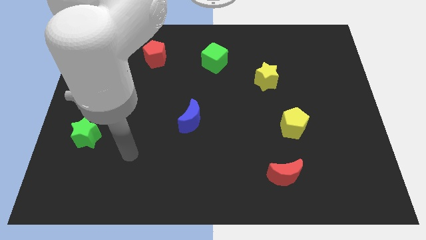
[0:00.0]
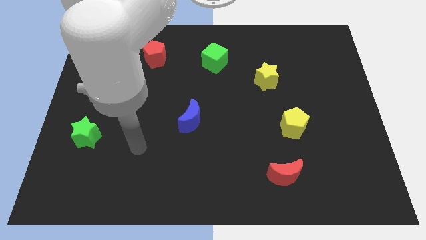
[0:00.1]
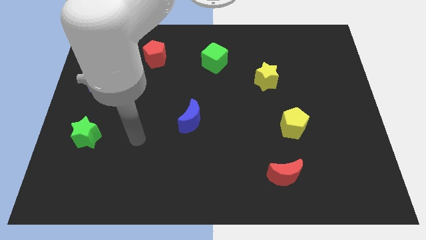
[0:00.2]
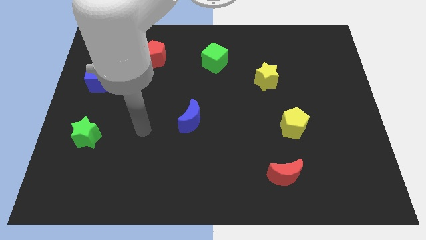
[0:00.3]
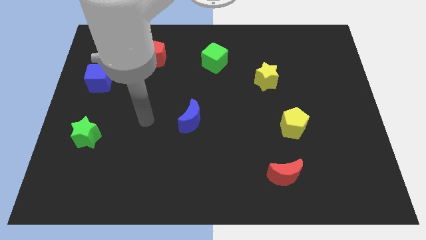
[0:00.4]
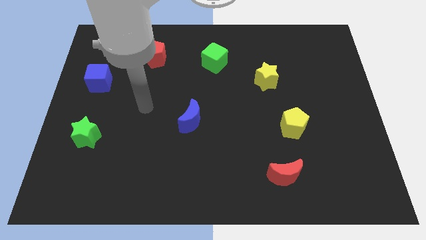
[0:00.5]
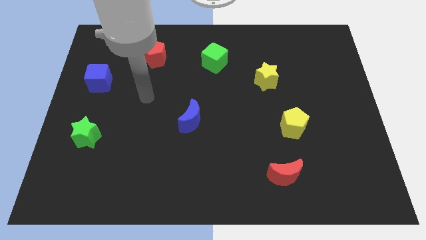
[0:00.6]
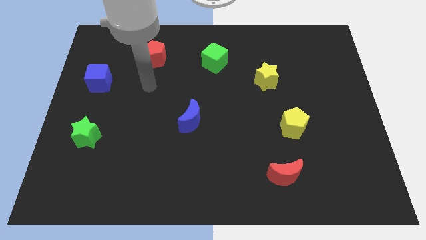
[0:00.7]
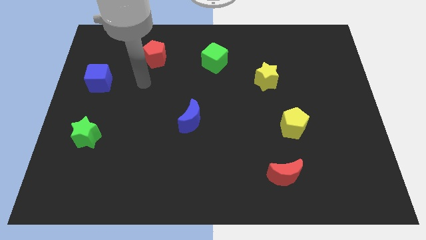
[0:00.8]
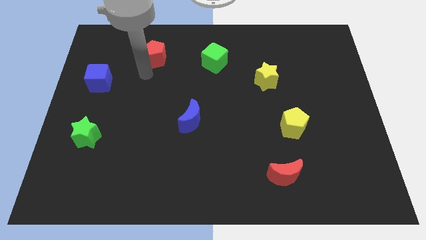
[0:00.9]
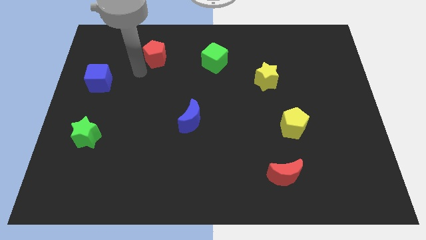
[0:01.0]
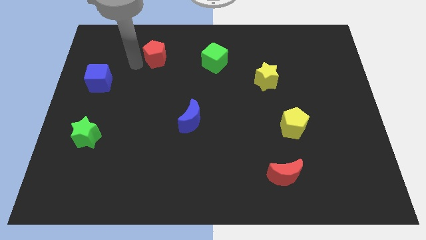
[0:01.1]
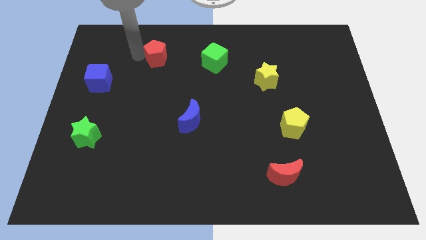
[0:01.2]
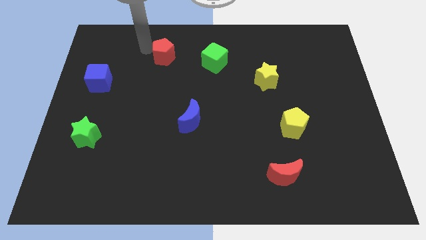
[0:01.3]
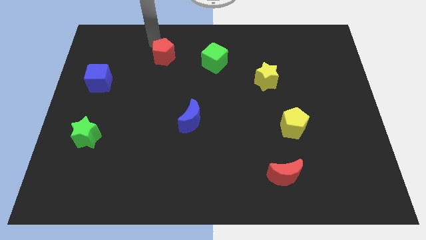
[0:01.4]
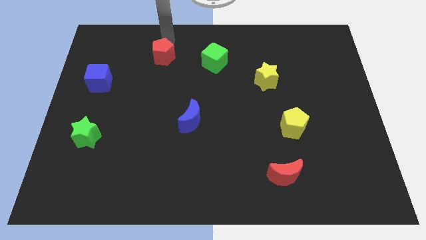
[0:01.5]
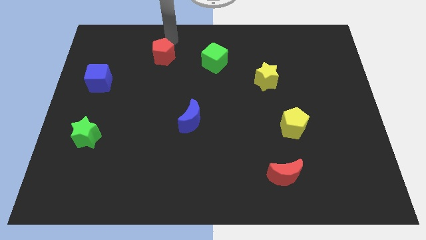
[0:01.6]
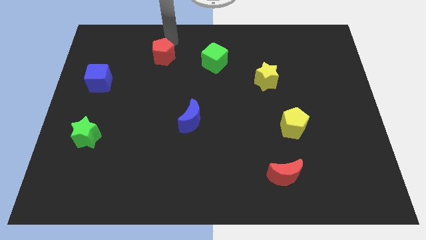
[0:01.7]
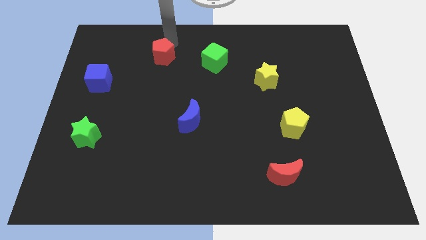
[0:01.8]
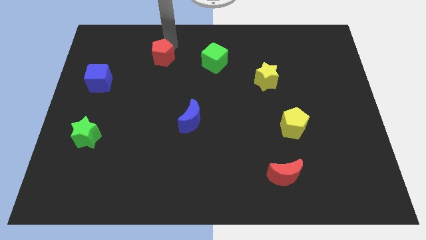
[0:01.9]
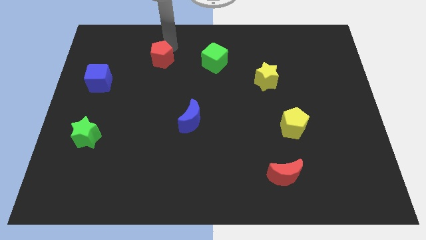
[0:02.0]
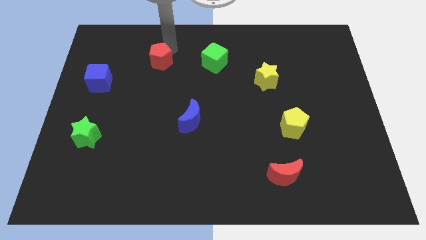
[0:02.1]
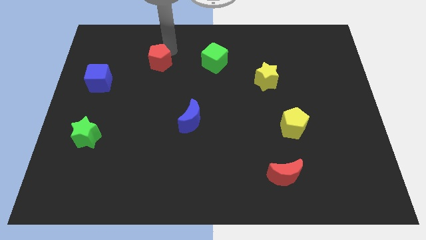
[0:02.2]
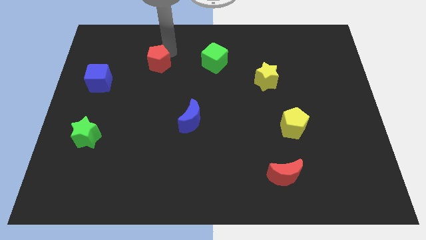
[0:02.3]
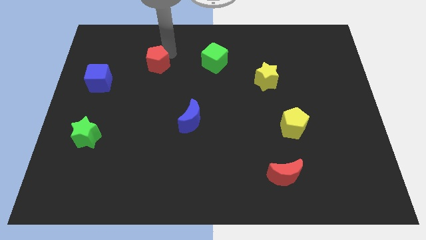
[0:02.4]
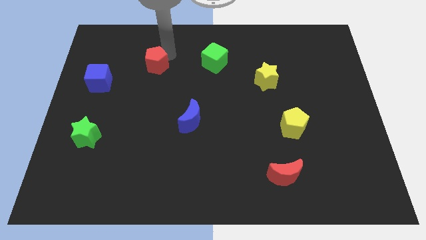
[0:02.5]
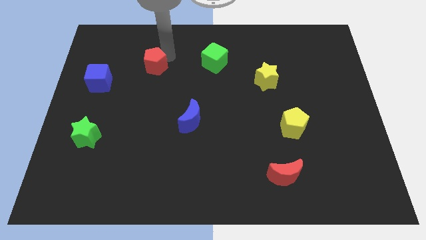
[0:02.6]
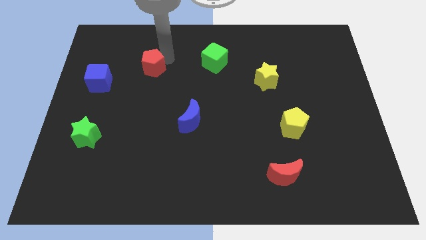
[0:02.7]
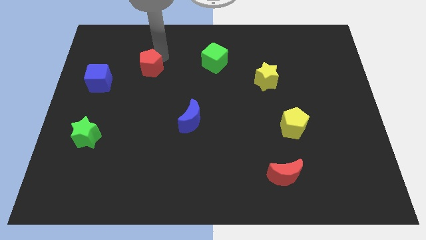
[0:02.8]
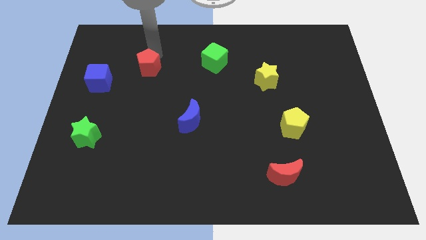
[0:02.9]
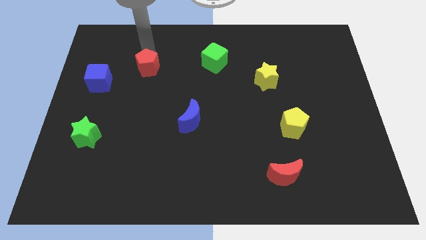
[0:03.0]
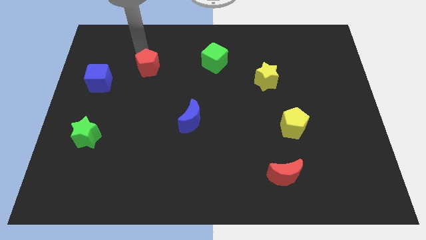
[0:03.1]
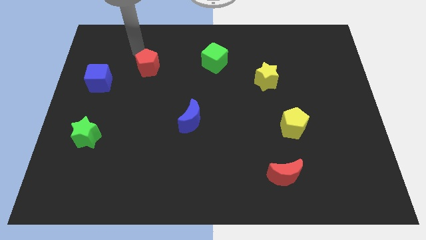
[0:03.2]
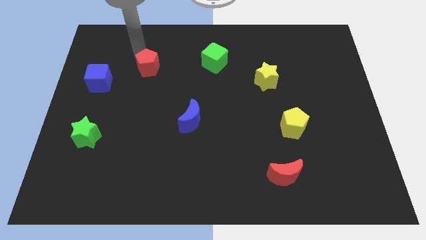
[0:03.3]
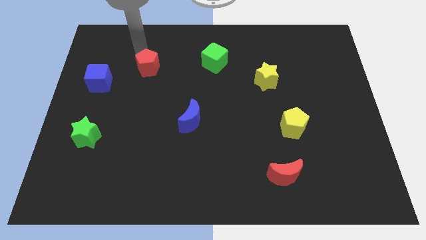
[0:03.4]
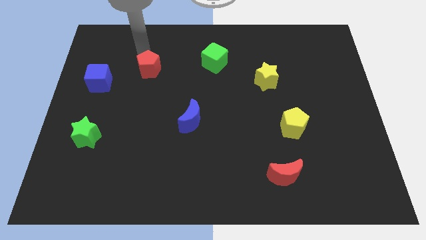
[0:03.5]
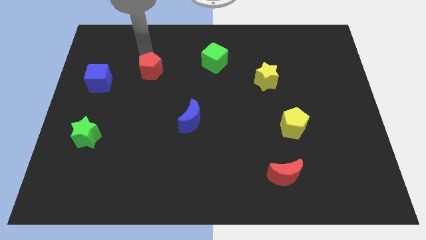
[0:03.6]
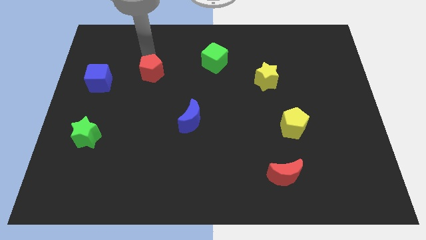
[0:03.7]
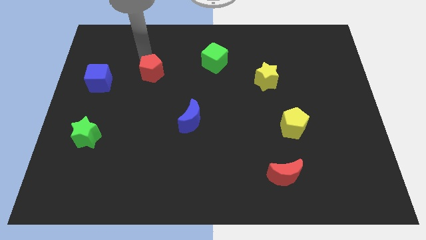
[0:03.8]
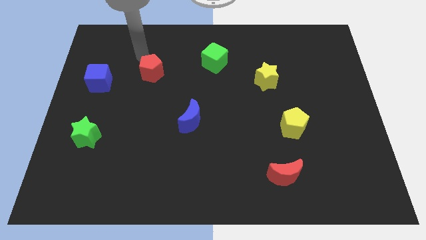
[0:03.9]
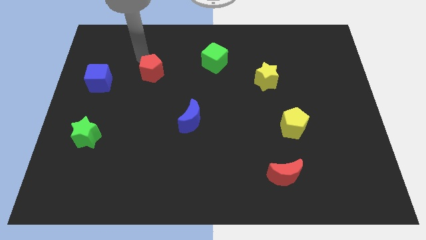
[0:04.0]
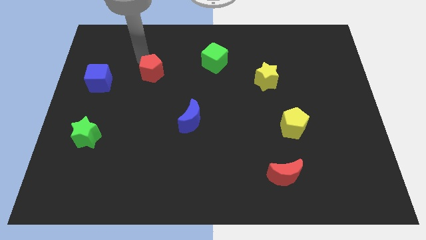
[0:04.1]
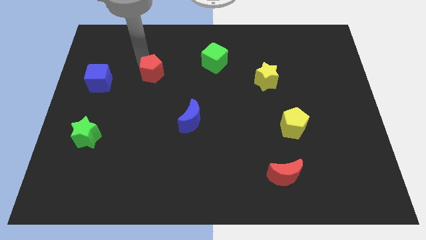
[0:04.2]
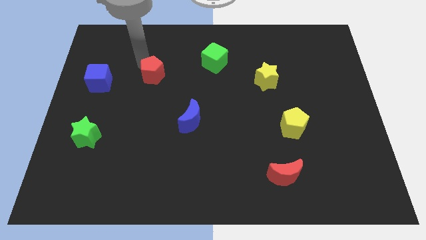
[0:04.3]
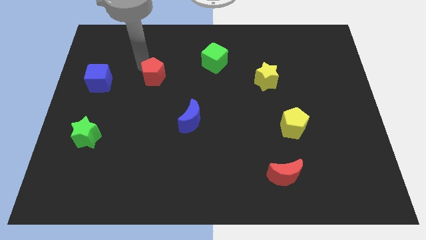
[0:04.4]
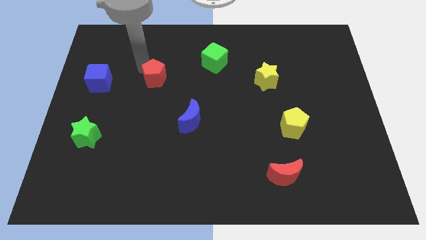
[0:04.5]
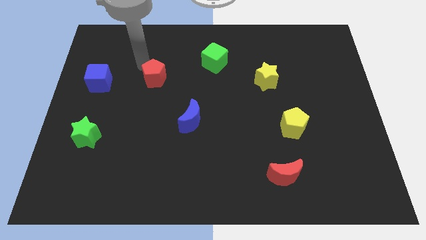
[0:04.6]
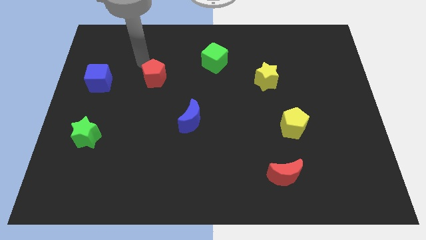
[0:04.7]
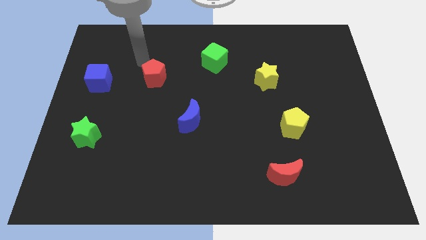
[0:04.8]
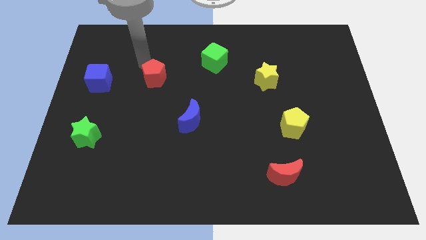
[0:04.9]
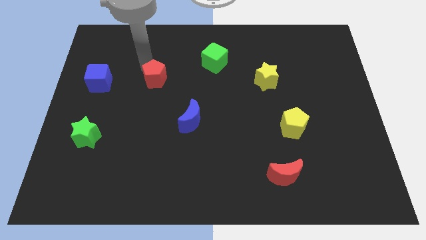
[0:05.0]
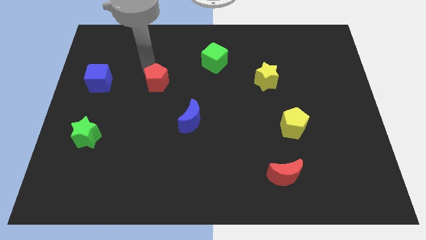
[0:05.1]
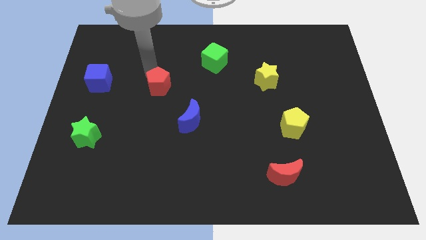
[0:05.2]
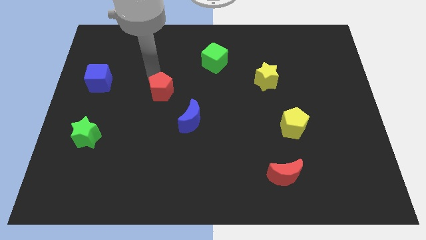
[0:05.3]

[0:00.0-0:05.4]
put the red pentagon to the top left side of the blue moon

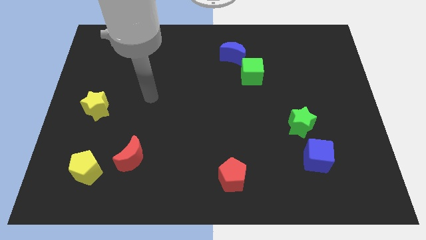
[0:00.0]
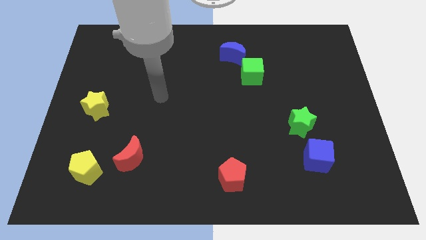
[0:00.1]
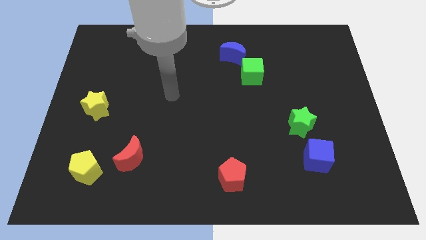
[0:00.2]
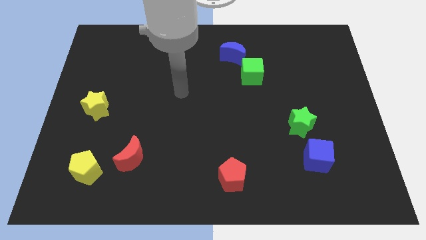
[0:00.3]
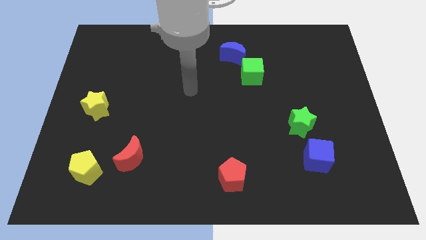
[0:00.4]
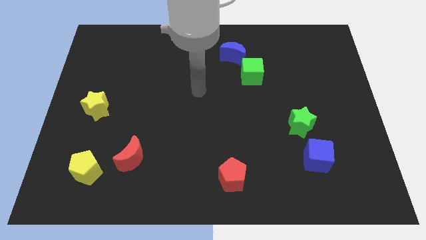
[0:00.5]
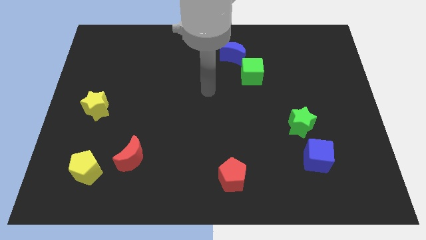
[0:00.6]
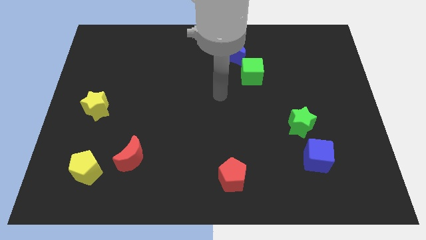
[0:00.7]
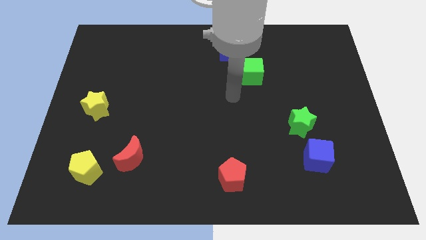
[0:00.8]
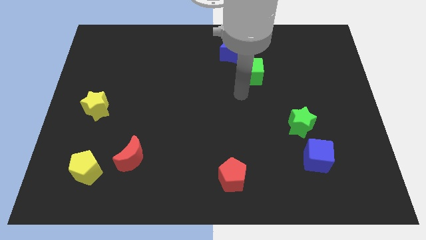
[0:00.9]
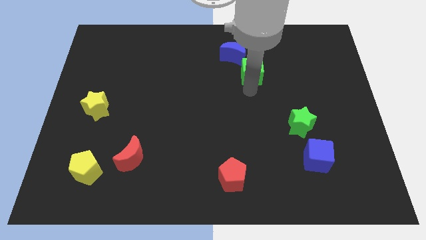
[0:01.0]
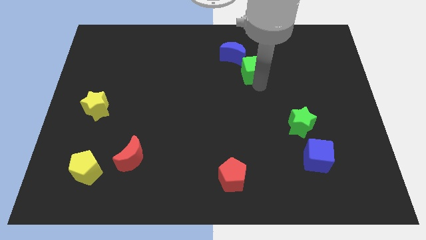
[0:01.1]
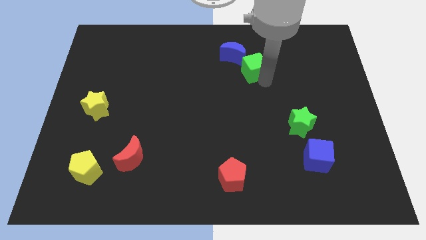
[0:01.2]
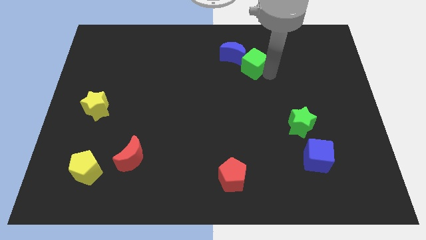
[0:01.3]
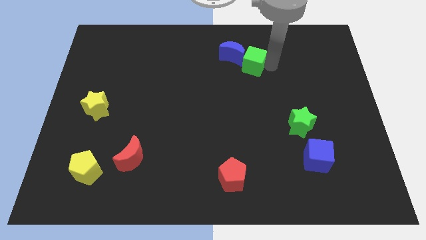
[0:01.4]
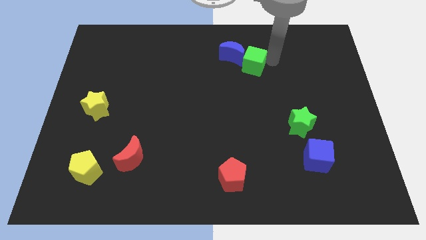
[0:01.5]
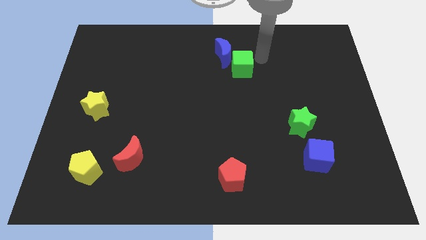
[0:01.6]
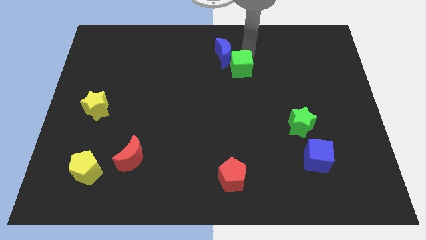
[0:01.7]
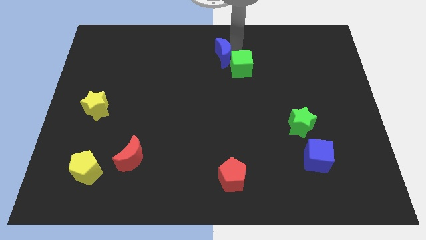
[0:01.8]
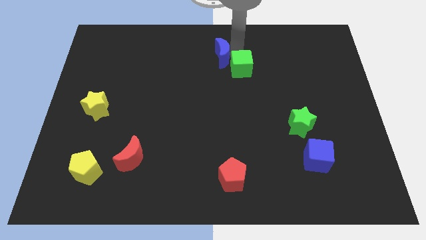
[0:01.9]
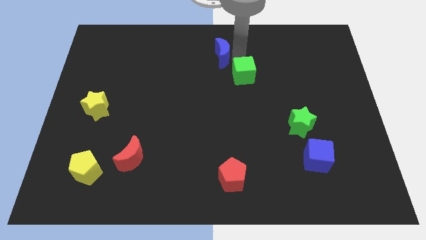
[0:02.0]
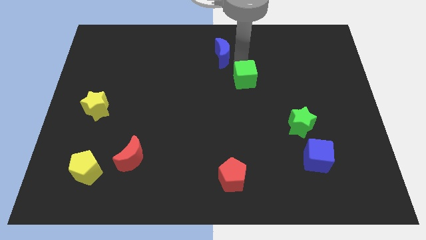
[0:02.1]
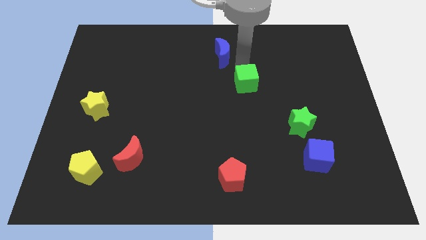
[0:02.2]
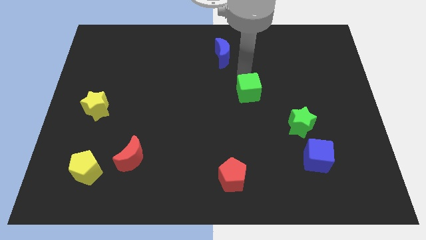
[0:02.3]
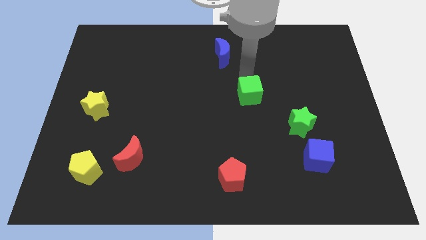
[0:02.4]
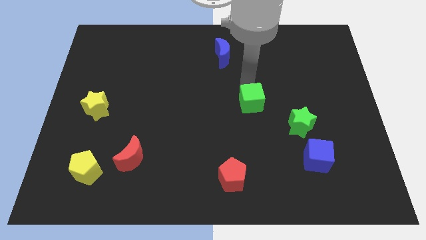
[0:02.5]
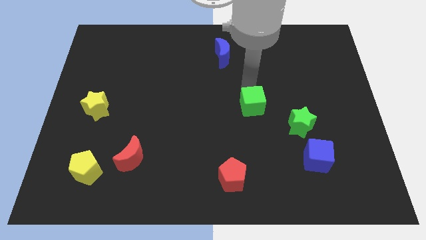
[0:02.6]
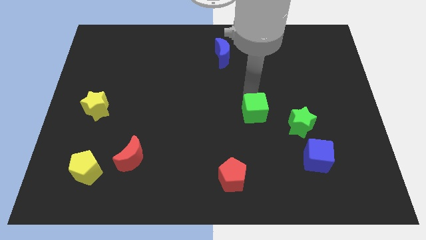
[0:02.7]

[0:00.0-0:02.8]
push the green cube to the left side of the green star
